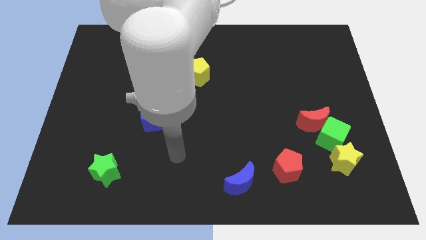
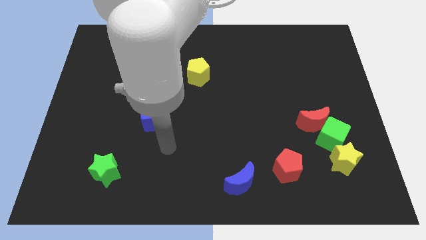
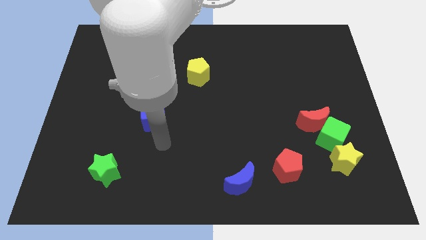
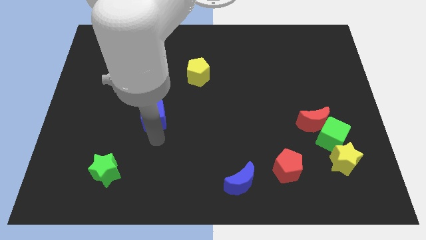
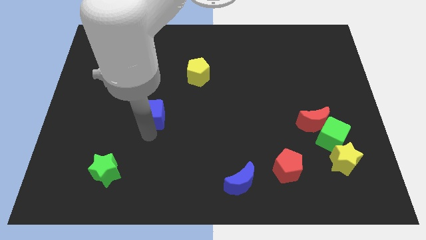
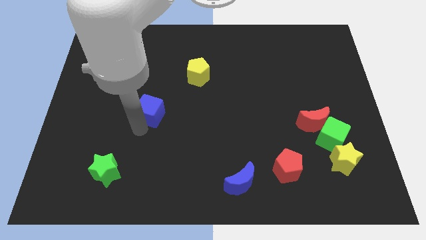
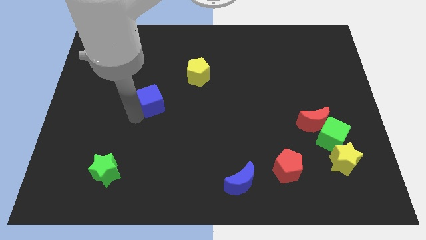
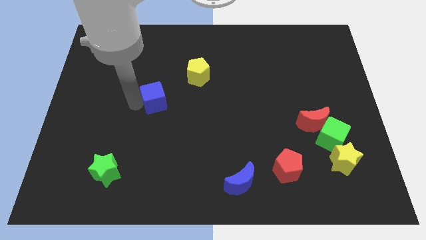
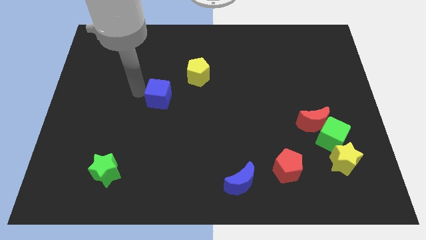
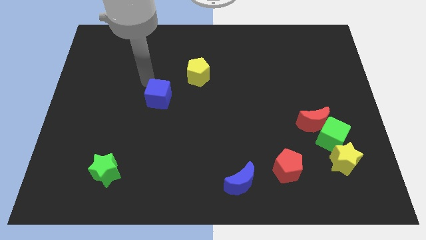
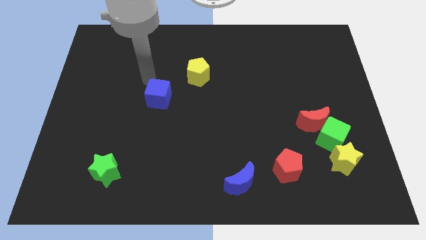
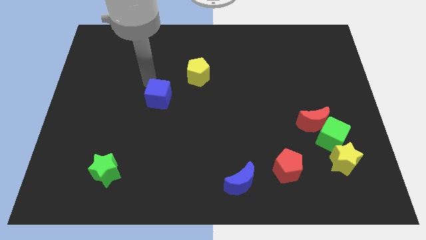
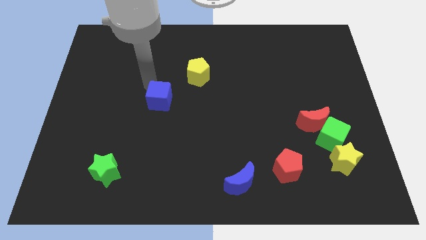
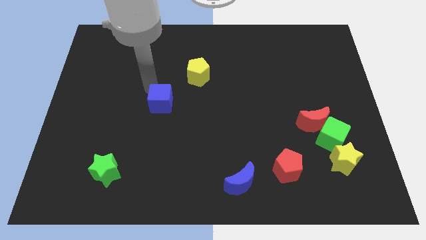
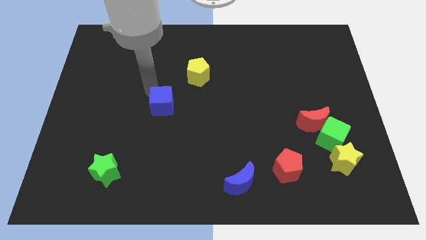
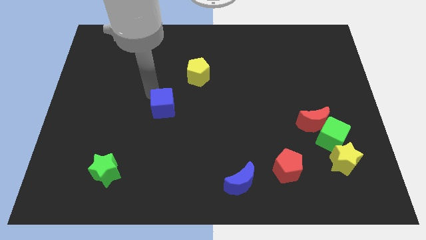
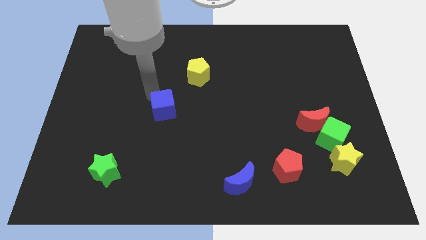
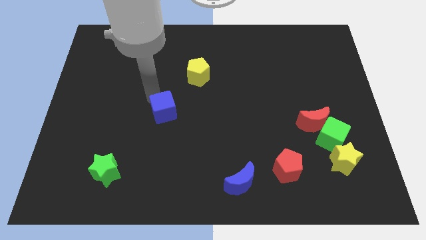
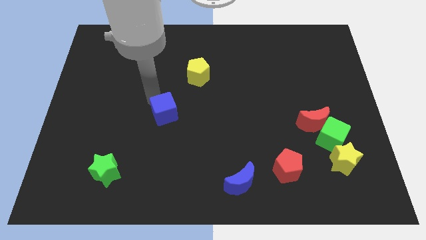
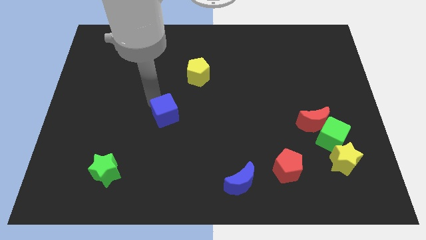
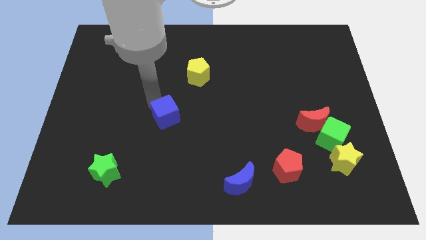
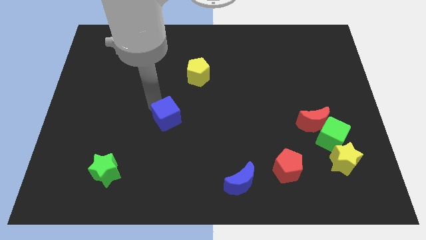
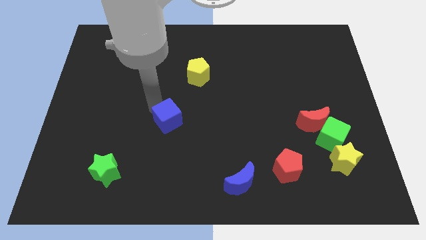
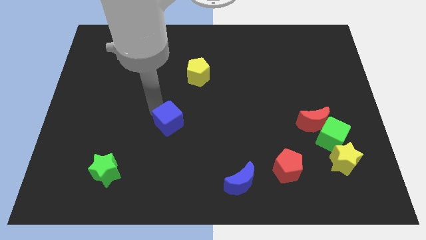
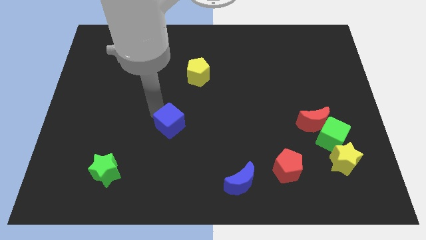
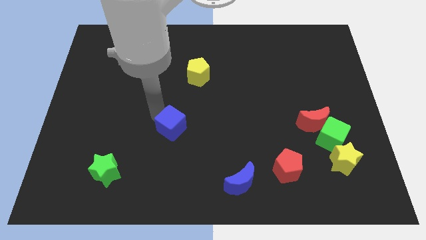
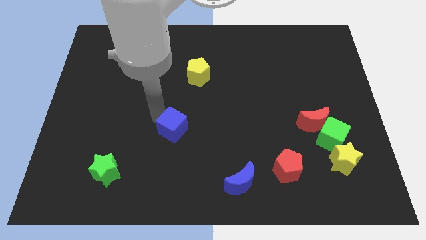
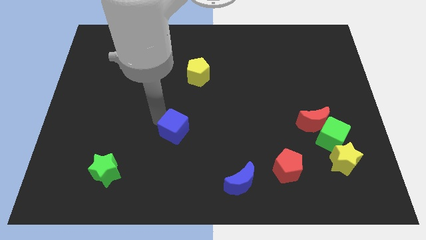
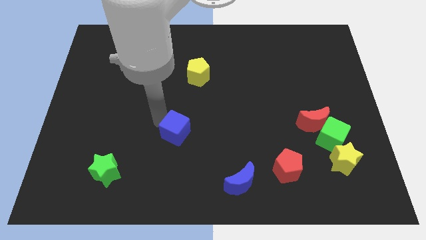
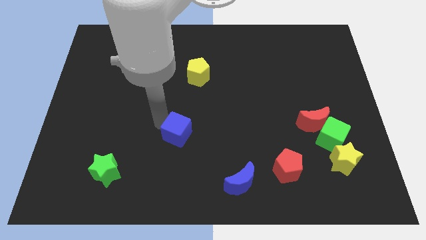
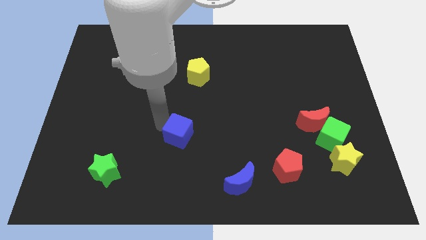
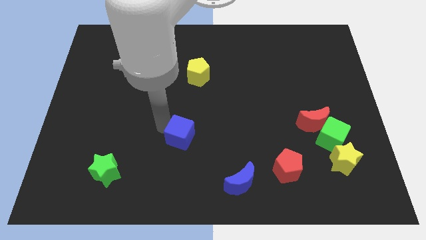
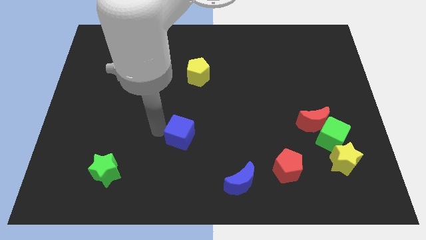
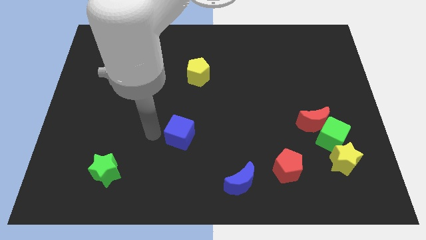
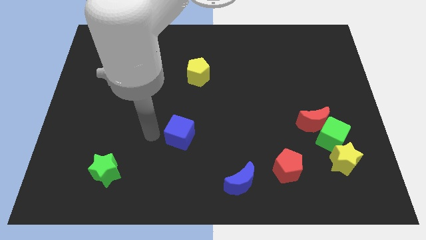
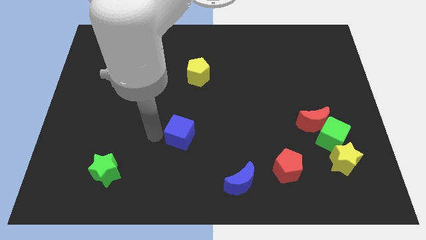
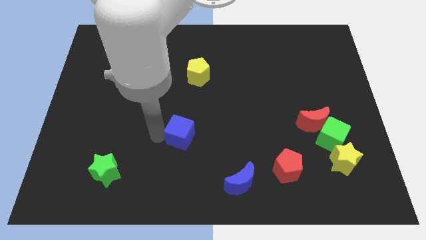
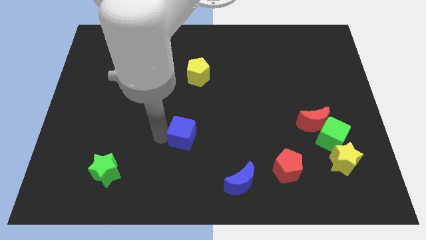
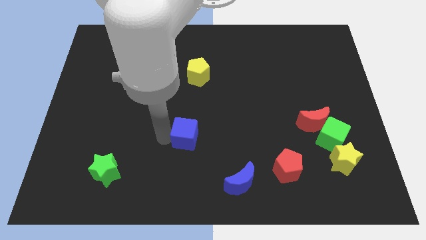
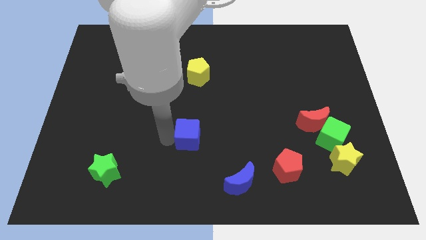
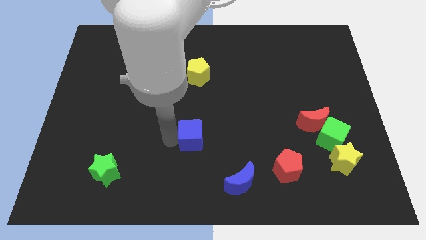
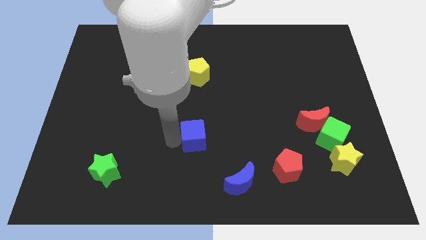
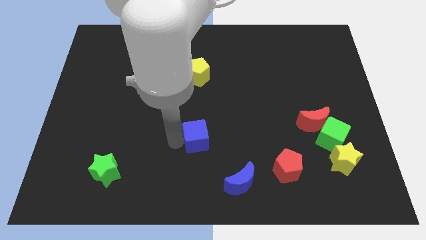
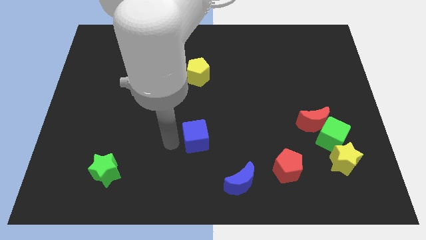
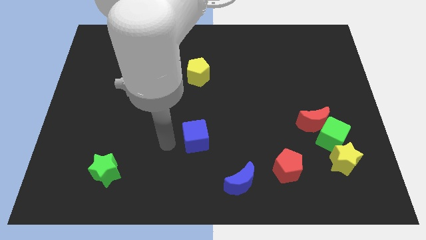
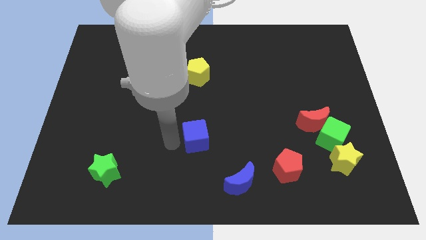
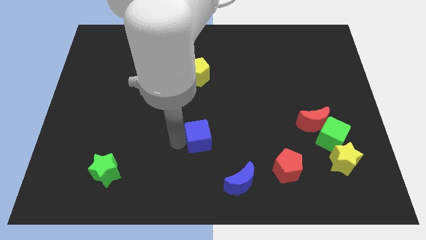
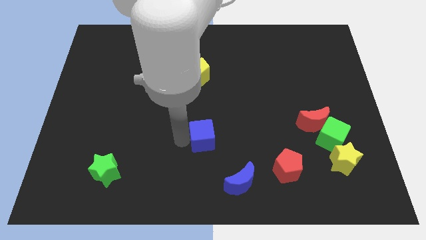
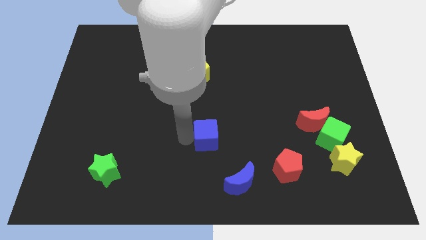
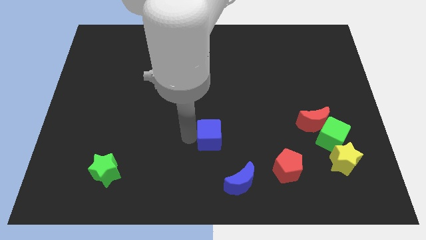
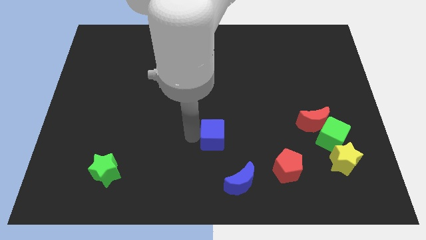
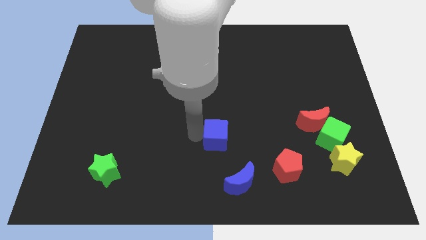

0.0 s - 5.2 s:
move the blue cube to the top of the blue moon

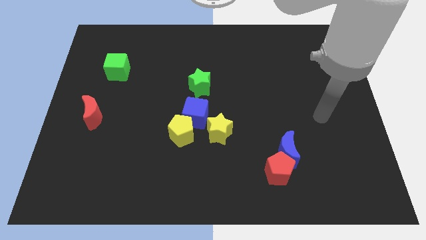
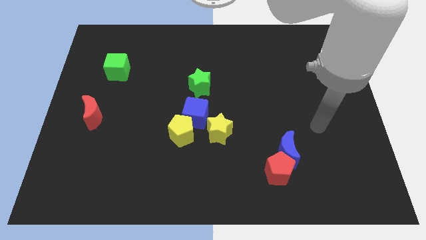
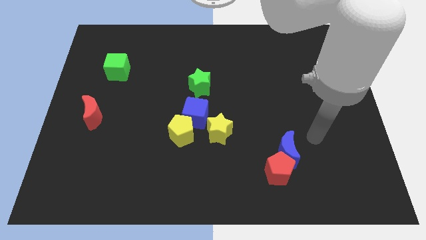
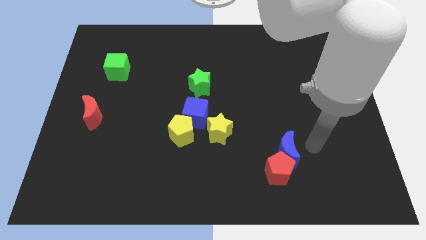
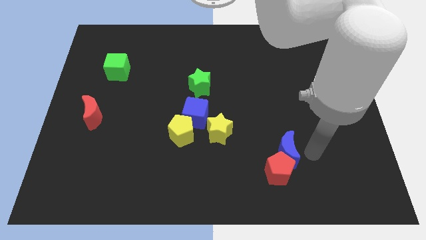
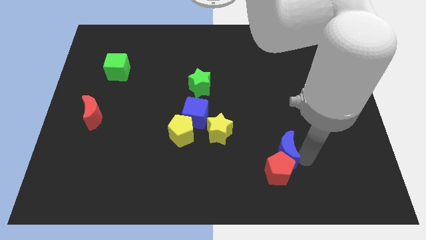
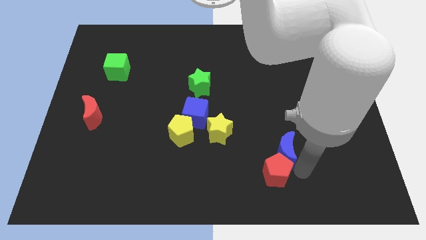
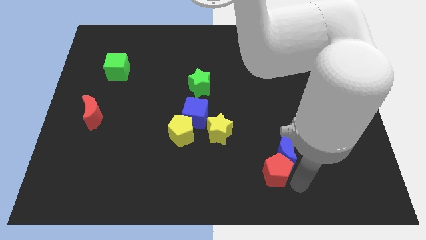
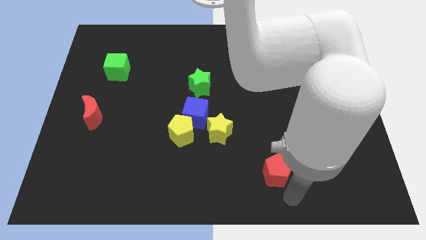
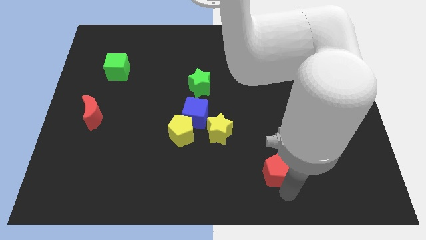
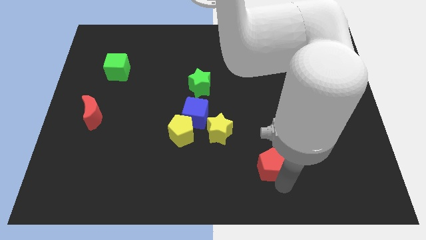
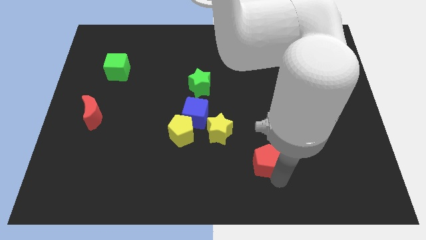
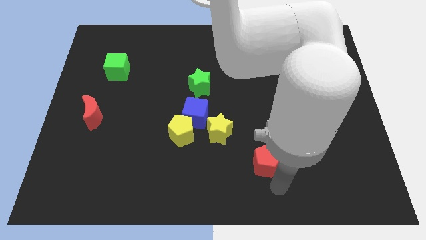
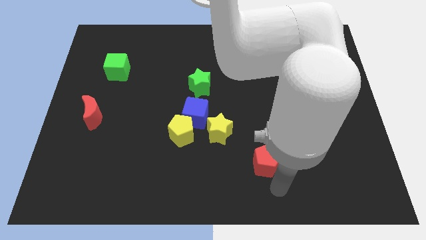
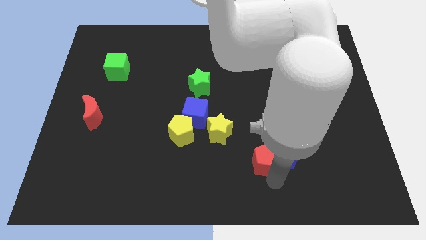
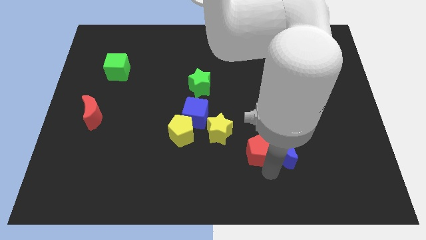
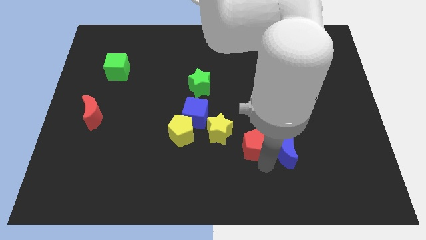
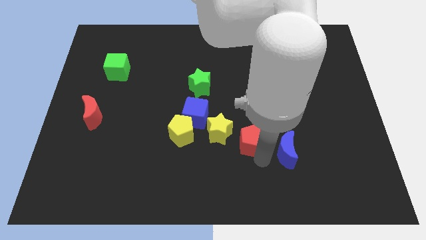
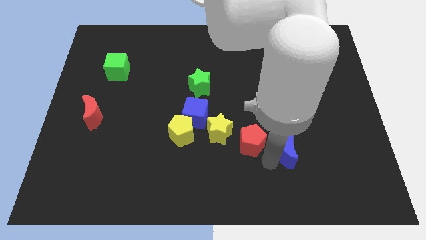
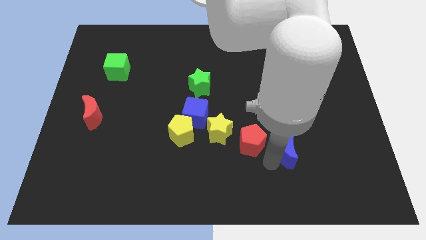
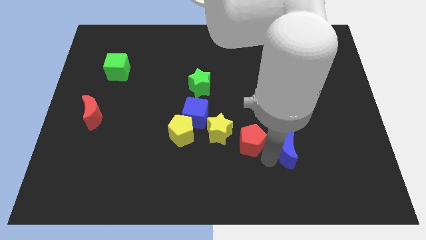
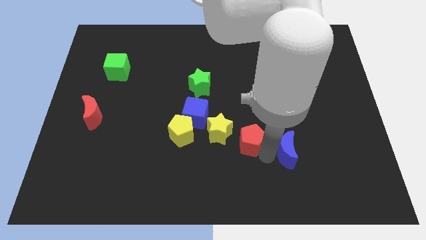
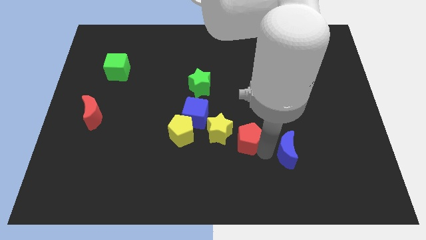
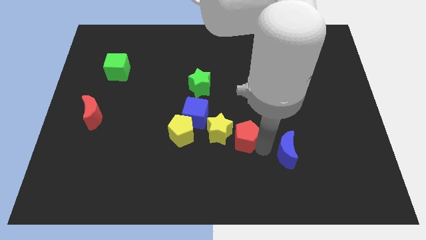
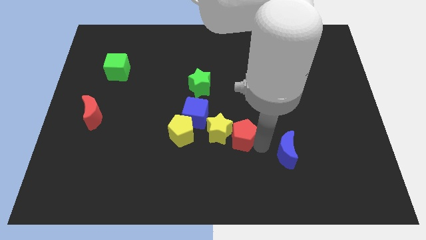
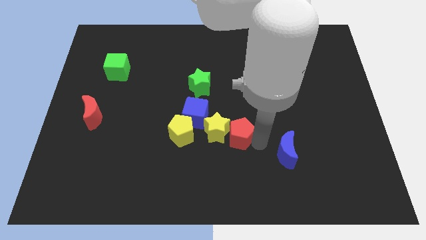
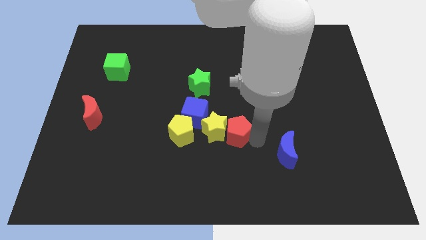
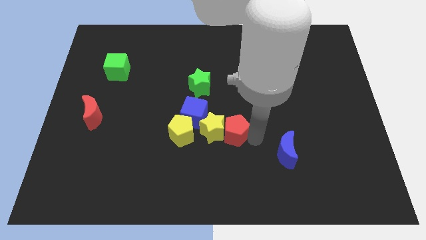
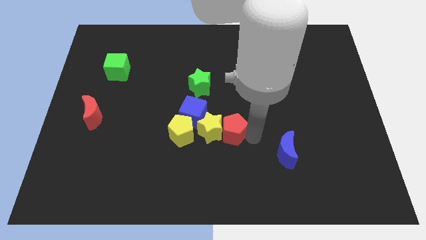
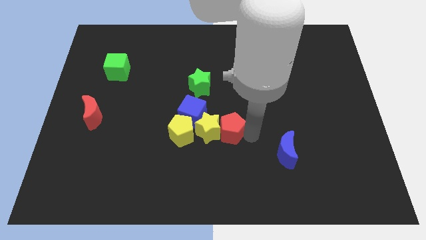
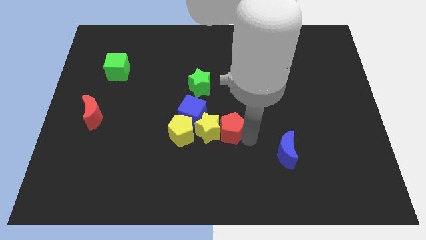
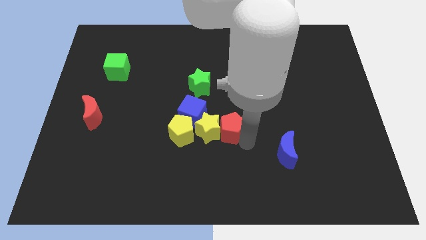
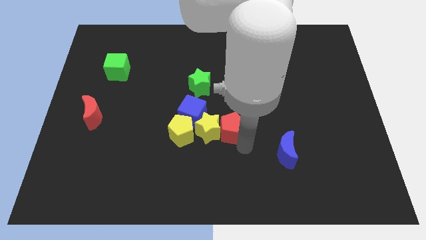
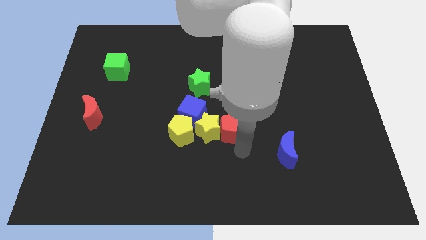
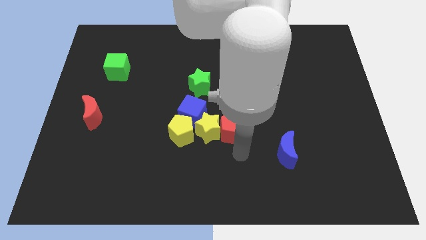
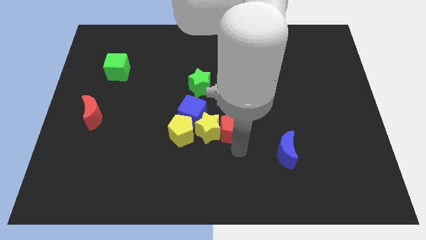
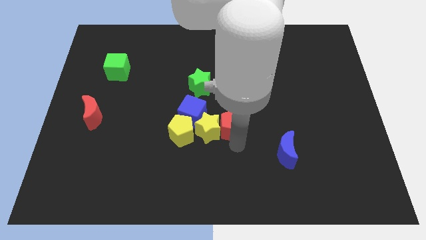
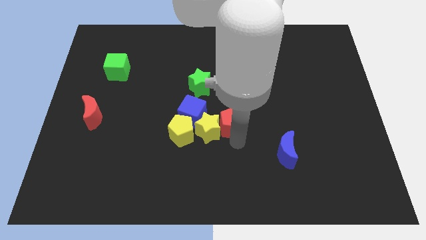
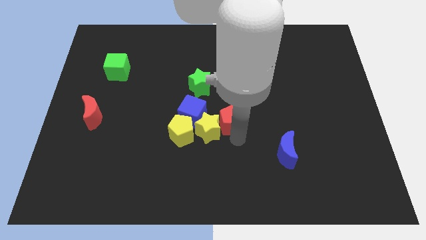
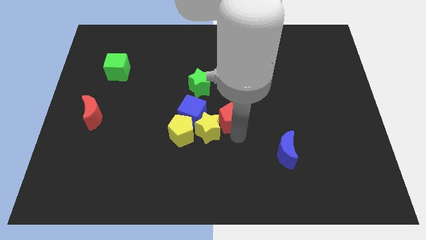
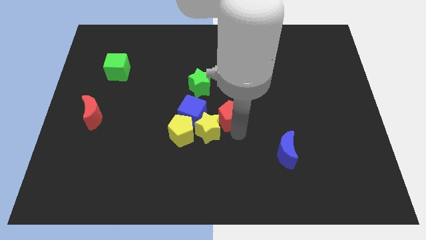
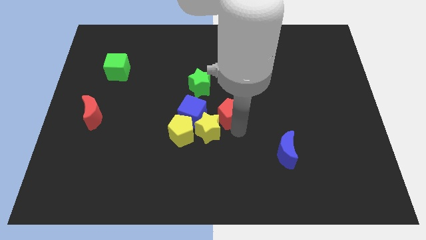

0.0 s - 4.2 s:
slide the red pentagon to the top right of the yellow pentagon
